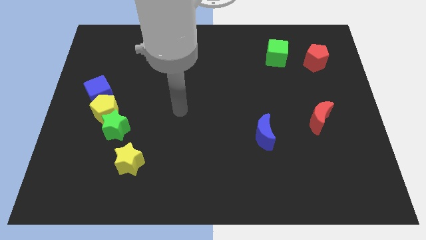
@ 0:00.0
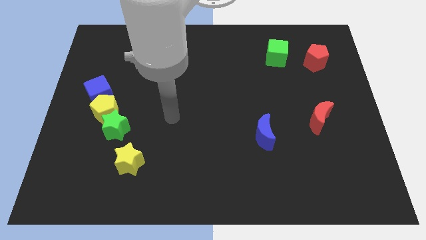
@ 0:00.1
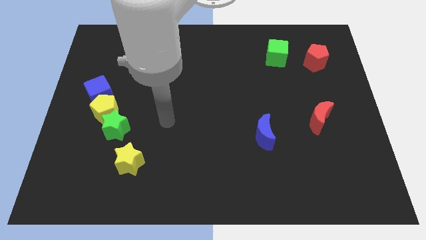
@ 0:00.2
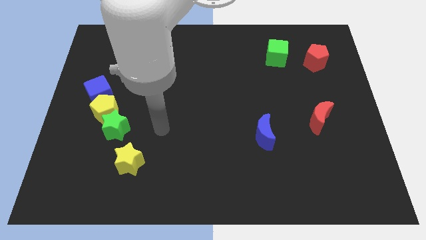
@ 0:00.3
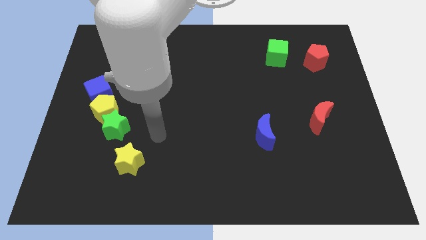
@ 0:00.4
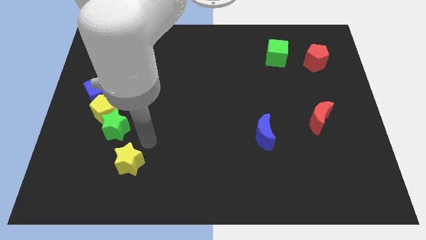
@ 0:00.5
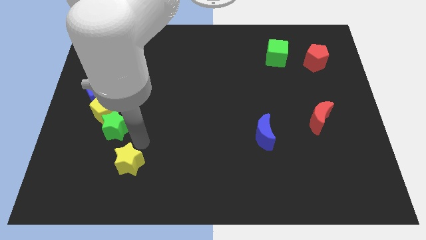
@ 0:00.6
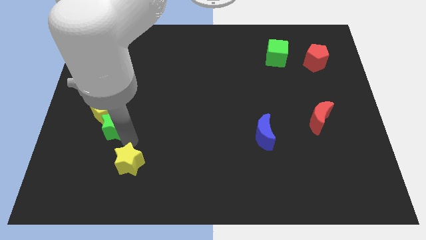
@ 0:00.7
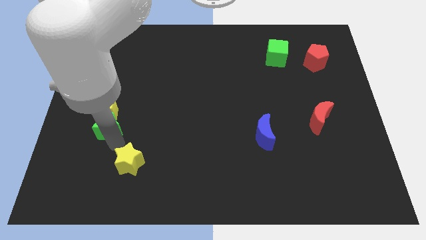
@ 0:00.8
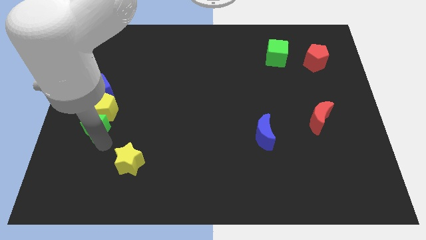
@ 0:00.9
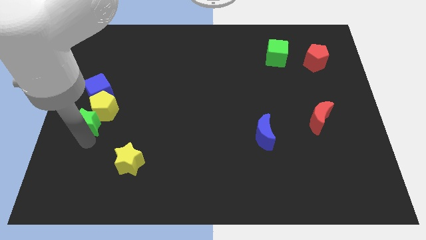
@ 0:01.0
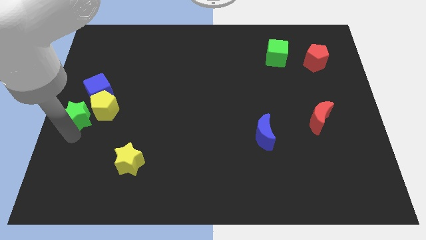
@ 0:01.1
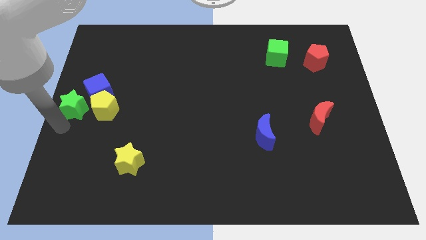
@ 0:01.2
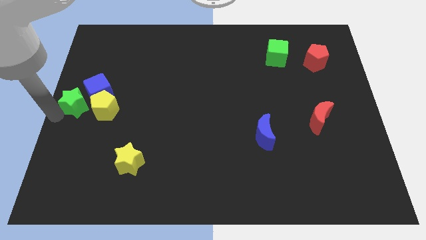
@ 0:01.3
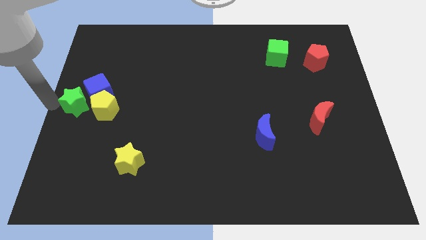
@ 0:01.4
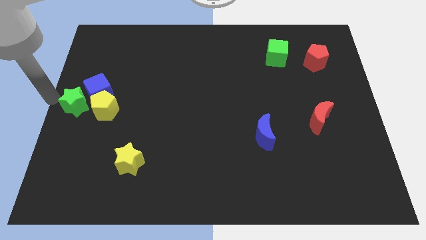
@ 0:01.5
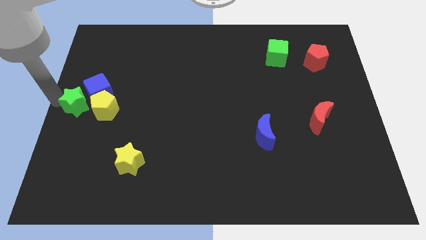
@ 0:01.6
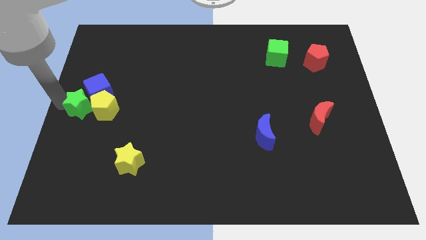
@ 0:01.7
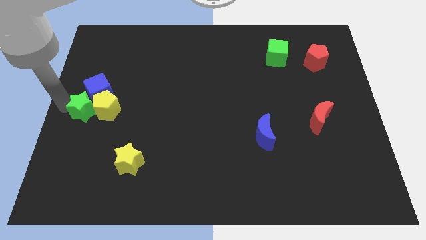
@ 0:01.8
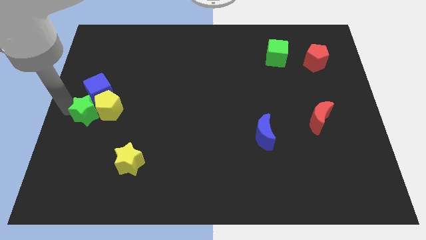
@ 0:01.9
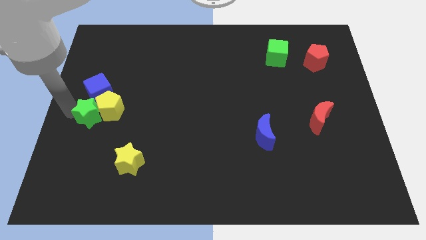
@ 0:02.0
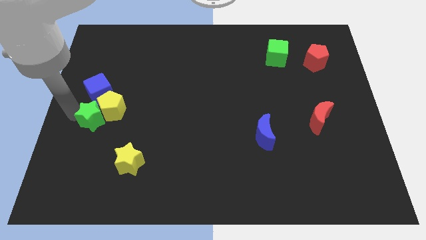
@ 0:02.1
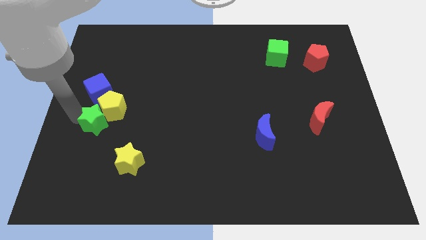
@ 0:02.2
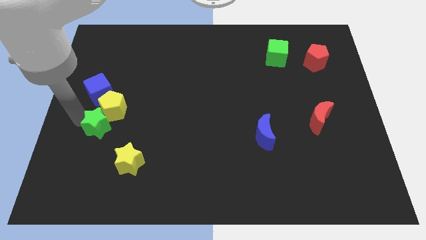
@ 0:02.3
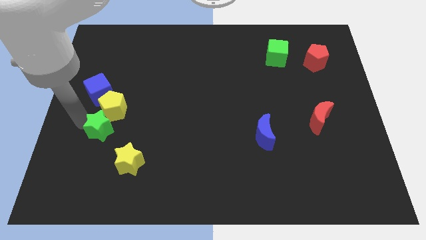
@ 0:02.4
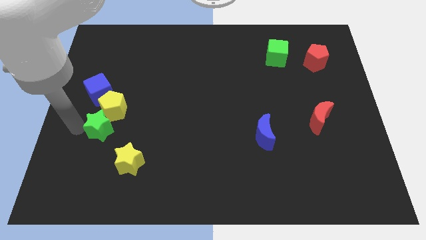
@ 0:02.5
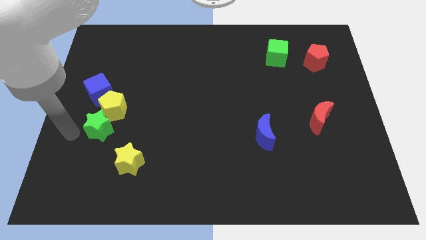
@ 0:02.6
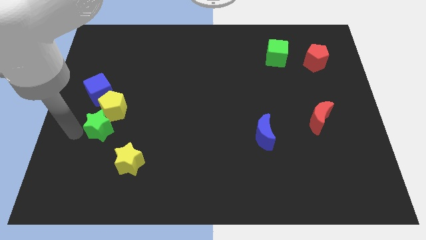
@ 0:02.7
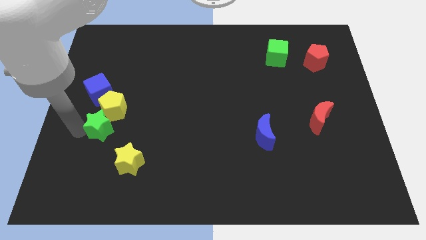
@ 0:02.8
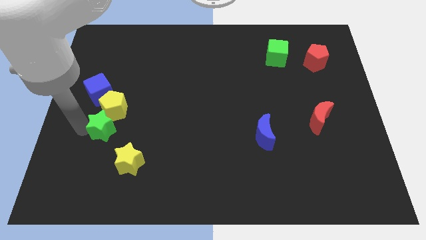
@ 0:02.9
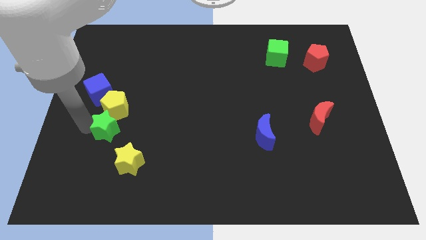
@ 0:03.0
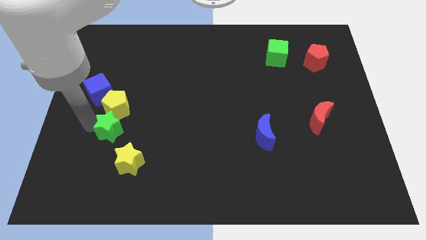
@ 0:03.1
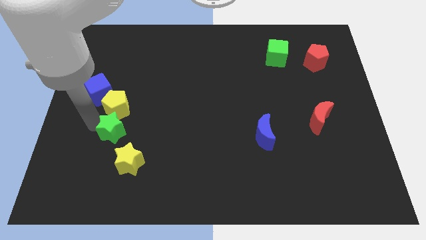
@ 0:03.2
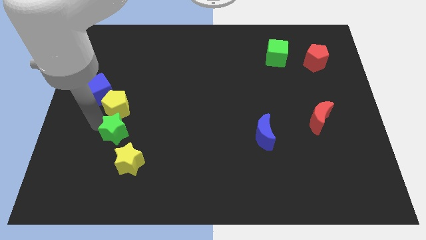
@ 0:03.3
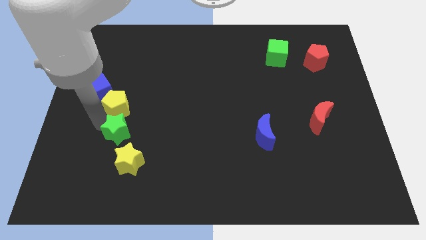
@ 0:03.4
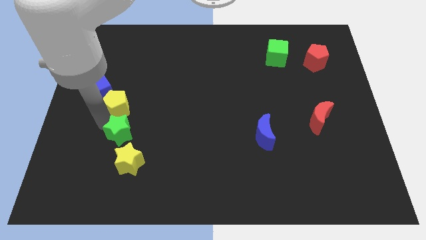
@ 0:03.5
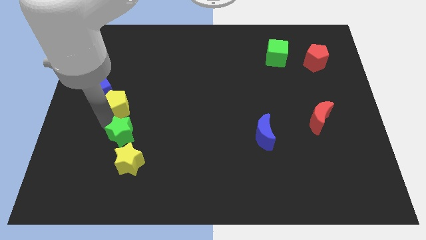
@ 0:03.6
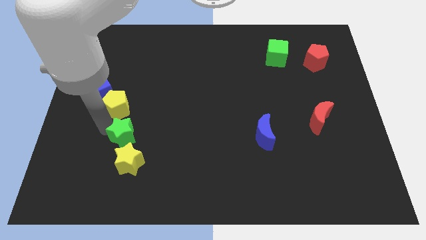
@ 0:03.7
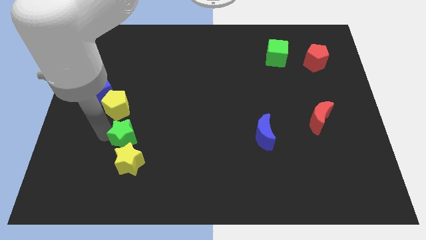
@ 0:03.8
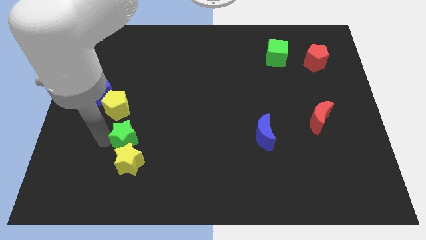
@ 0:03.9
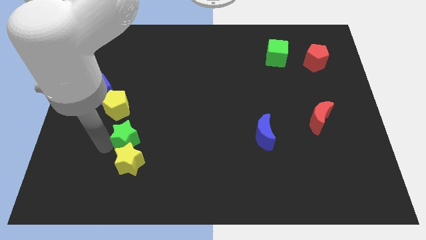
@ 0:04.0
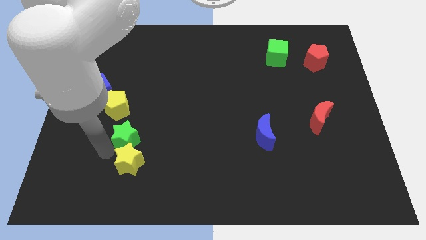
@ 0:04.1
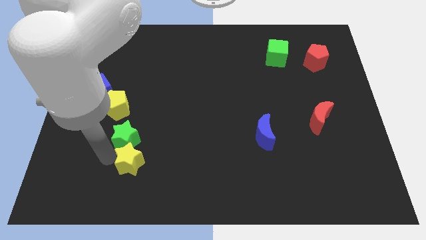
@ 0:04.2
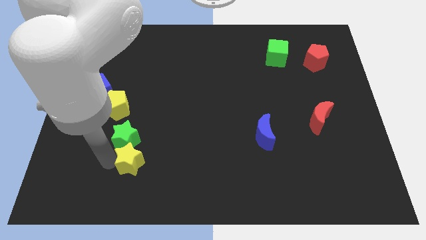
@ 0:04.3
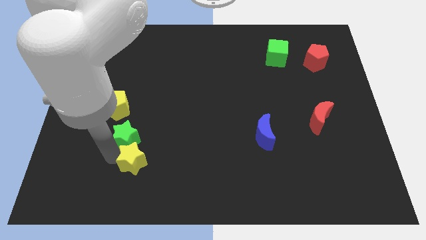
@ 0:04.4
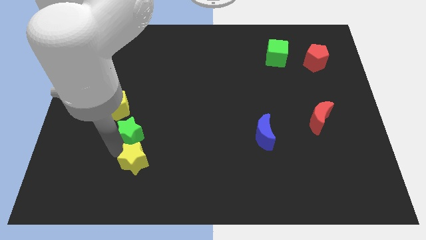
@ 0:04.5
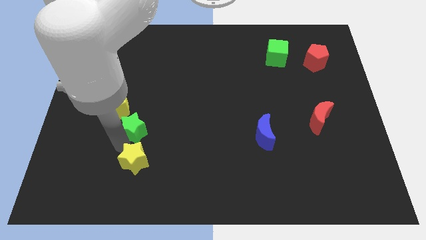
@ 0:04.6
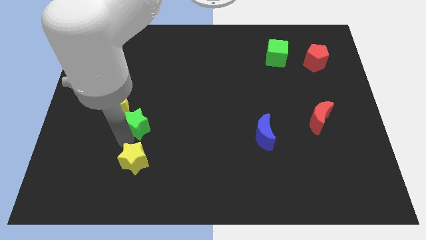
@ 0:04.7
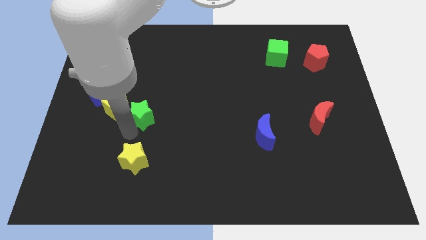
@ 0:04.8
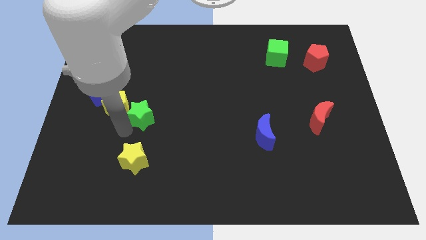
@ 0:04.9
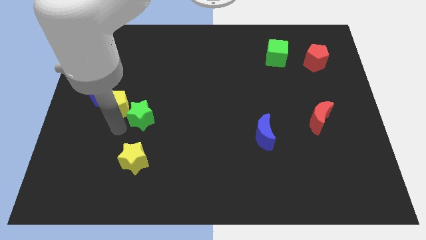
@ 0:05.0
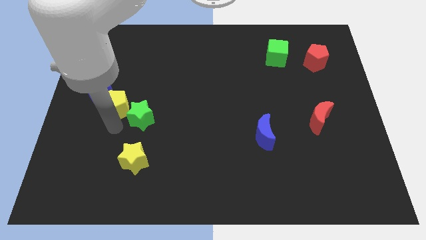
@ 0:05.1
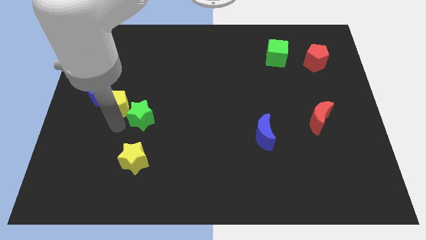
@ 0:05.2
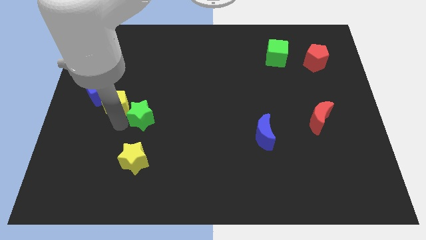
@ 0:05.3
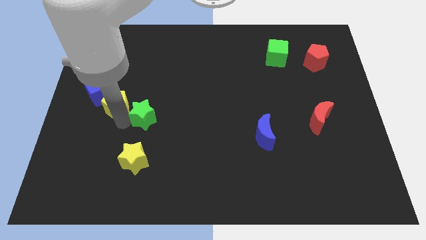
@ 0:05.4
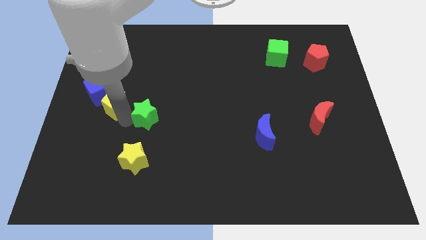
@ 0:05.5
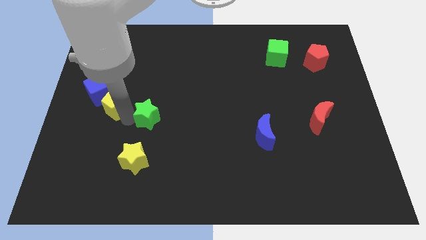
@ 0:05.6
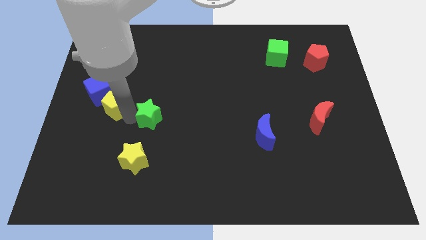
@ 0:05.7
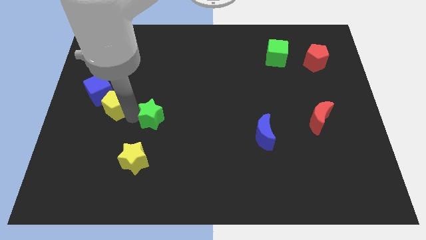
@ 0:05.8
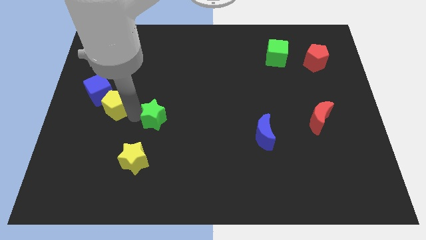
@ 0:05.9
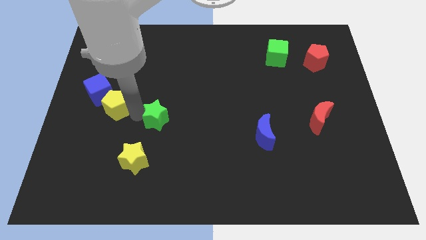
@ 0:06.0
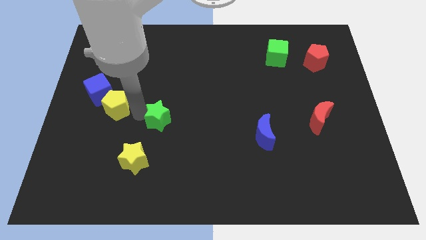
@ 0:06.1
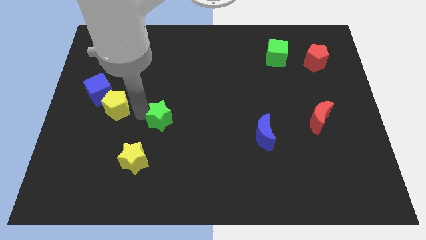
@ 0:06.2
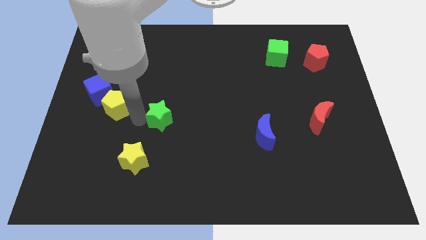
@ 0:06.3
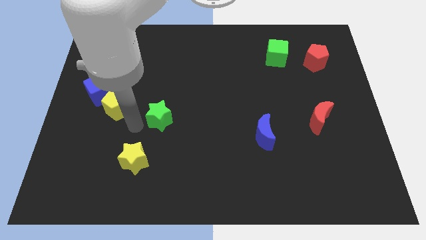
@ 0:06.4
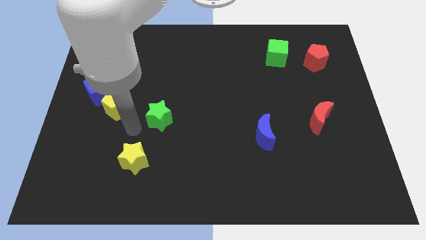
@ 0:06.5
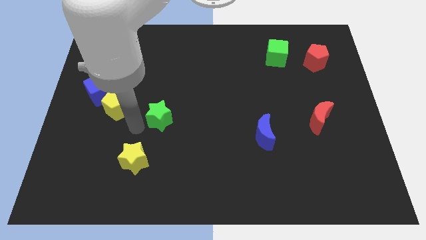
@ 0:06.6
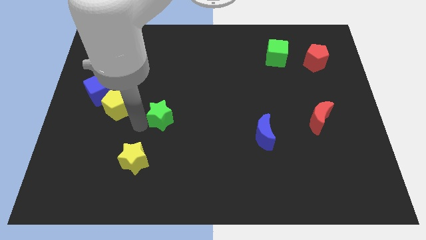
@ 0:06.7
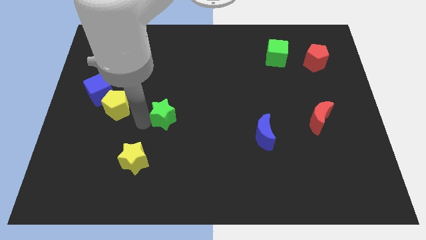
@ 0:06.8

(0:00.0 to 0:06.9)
slide the green star to the middle
